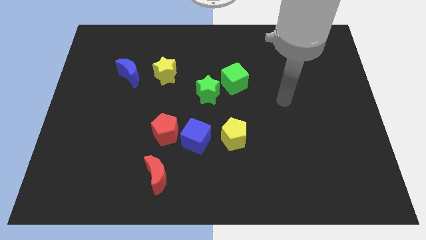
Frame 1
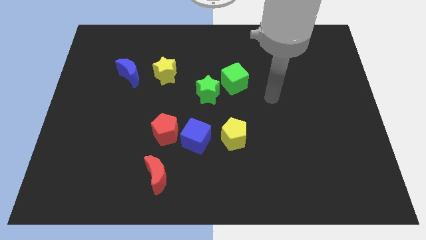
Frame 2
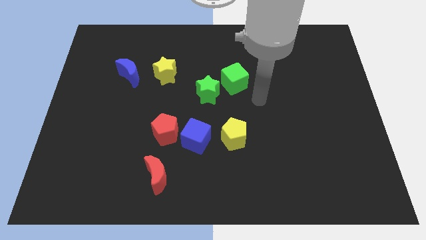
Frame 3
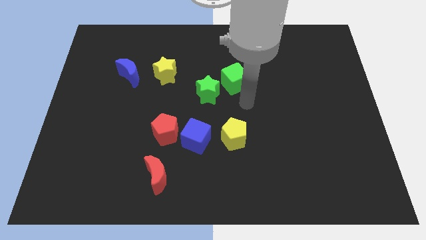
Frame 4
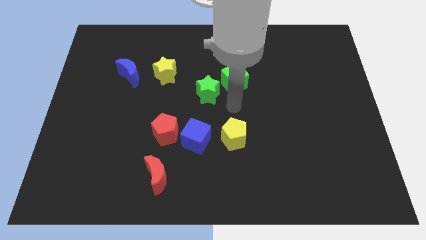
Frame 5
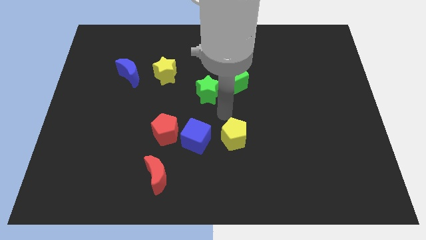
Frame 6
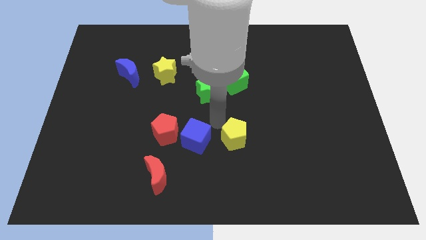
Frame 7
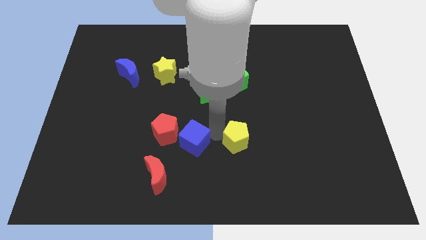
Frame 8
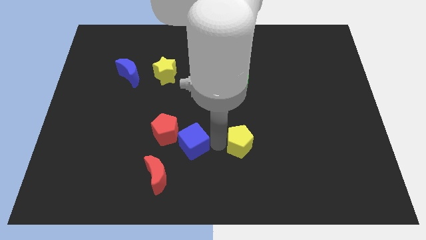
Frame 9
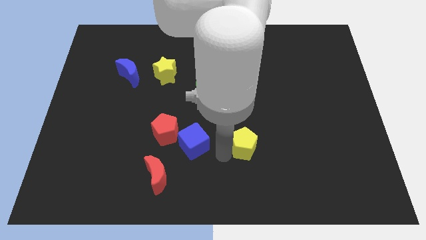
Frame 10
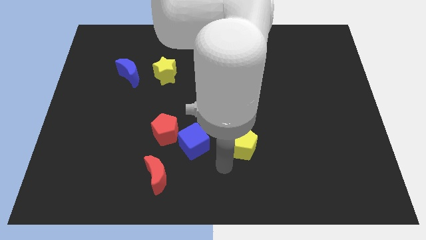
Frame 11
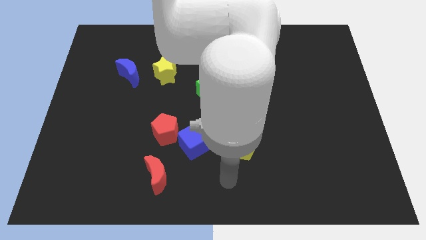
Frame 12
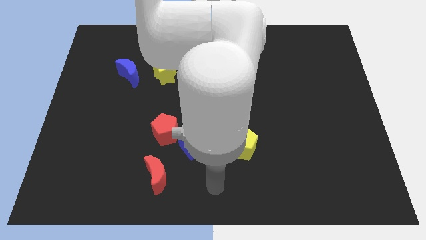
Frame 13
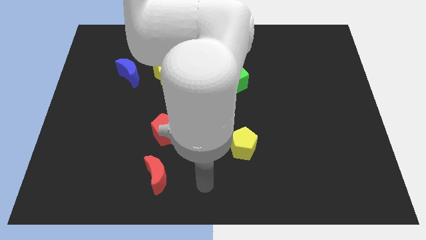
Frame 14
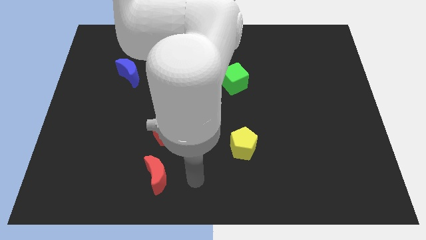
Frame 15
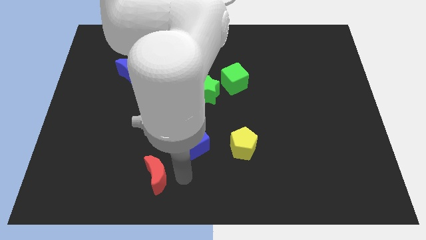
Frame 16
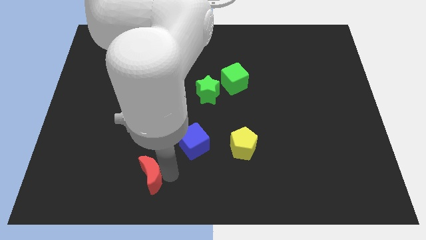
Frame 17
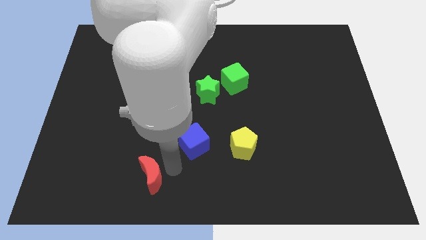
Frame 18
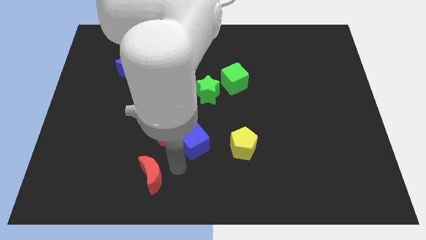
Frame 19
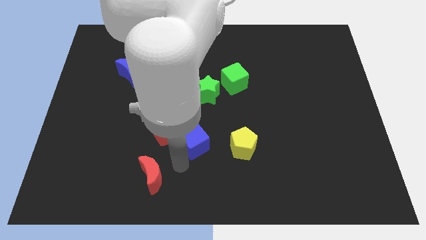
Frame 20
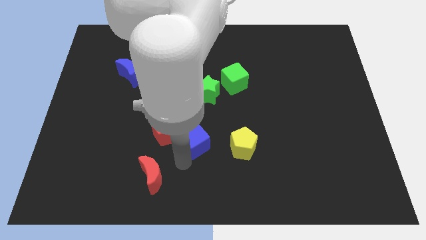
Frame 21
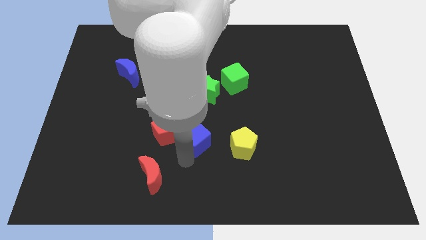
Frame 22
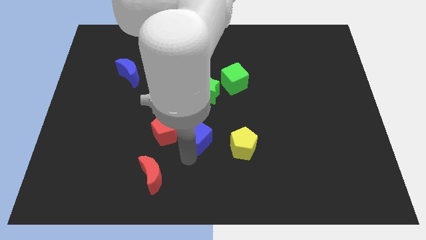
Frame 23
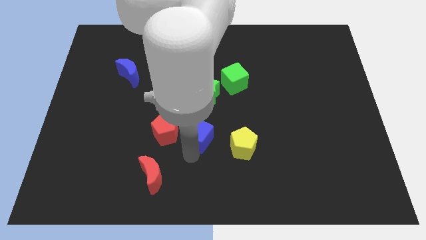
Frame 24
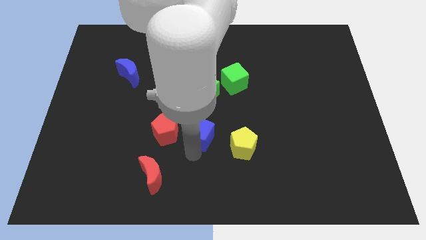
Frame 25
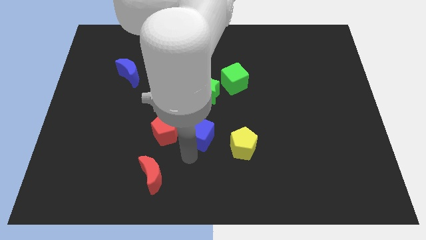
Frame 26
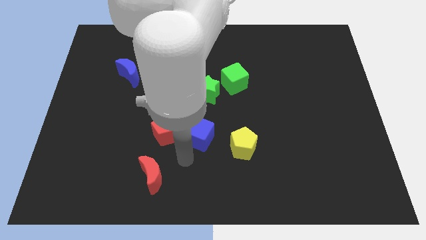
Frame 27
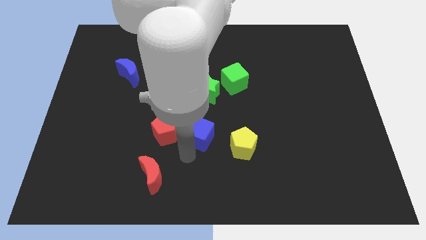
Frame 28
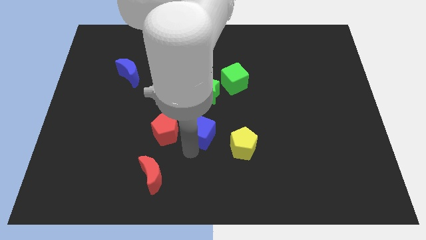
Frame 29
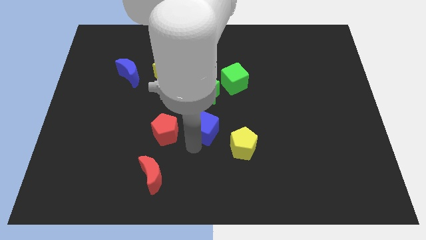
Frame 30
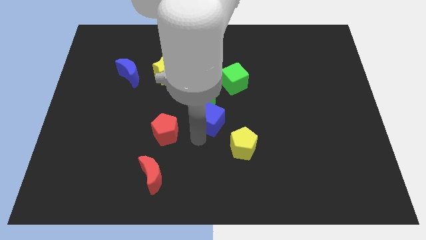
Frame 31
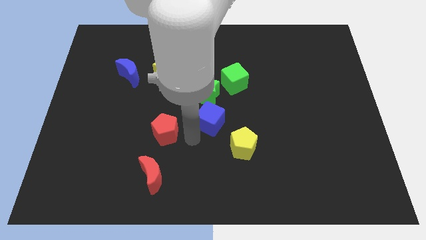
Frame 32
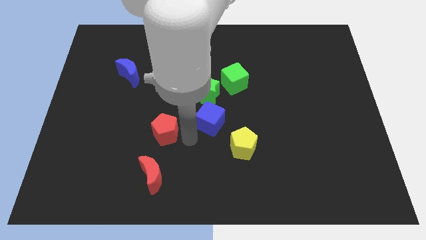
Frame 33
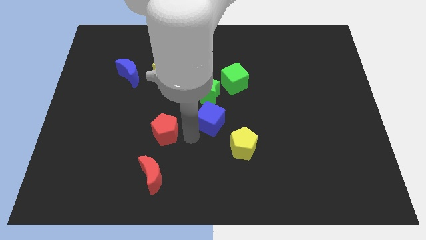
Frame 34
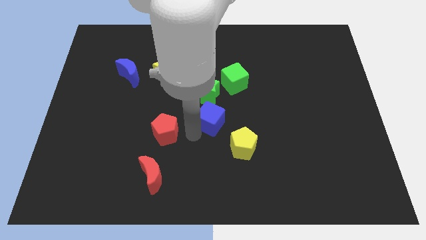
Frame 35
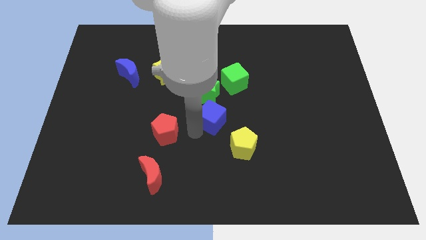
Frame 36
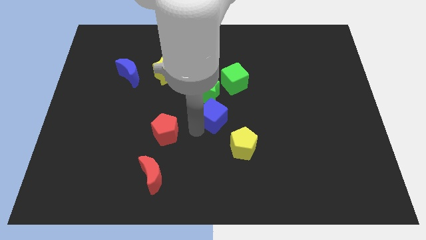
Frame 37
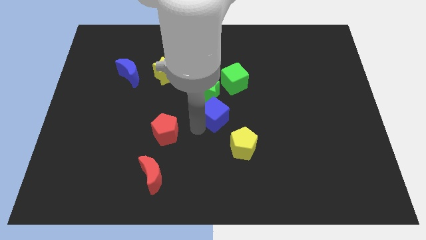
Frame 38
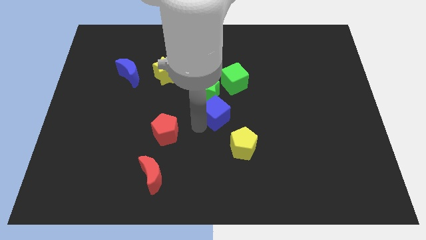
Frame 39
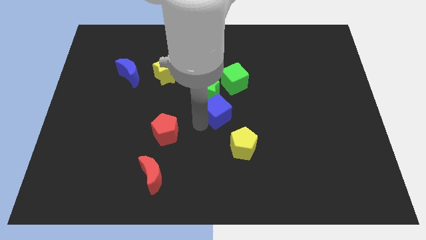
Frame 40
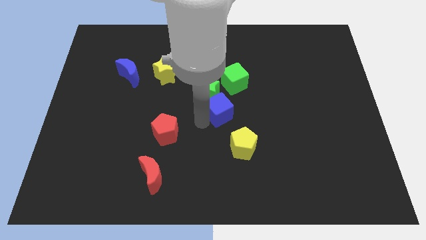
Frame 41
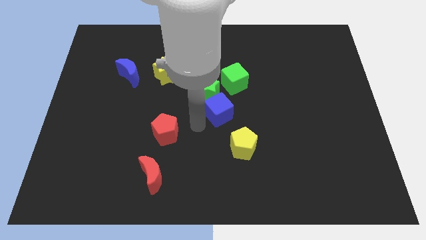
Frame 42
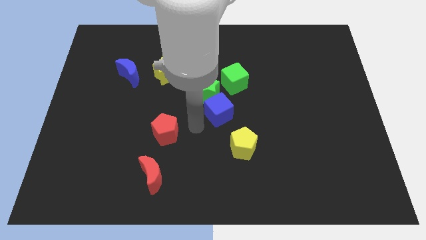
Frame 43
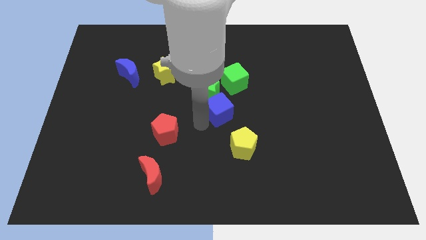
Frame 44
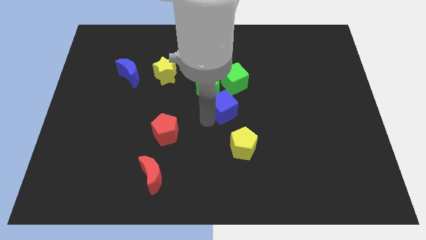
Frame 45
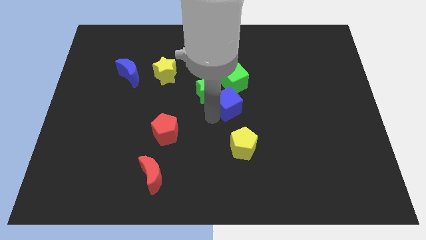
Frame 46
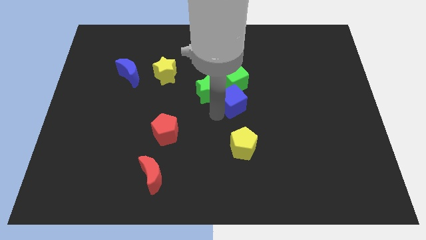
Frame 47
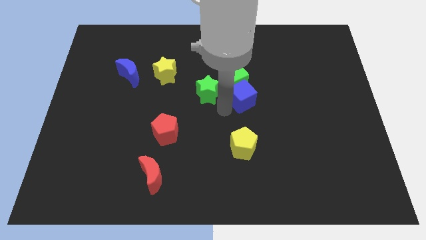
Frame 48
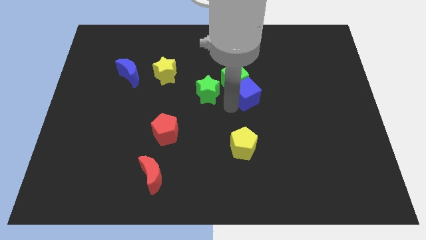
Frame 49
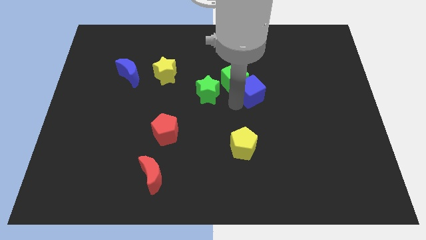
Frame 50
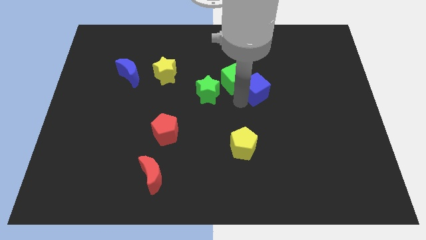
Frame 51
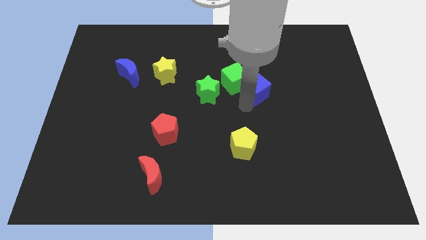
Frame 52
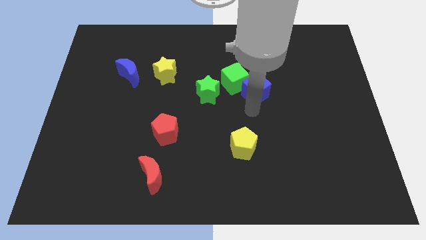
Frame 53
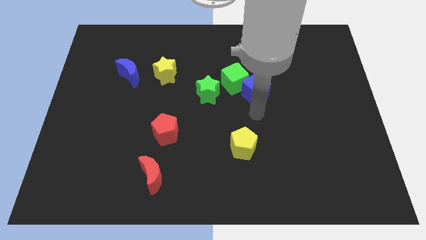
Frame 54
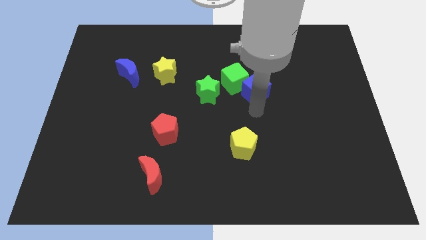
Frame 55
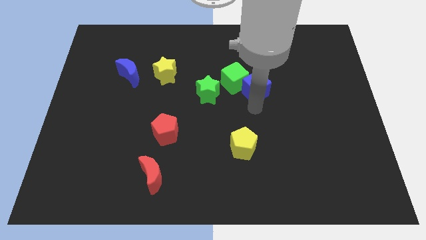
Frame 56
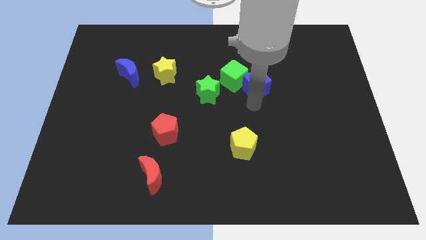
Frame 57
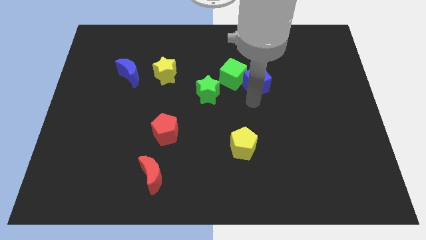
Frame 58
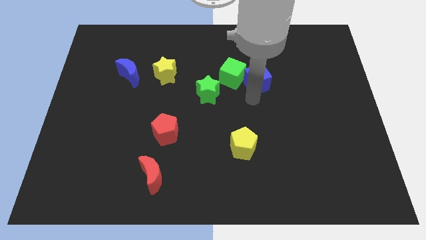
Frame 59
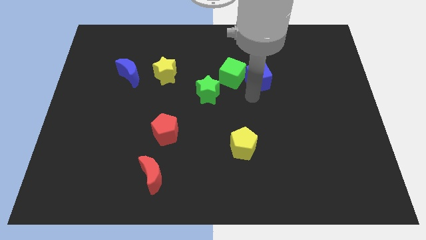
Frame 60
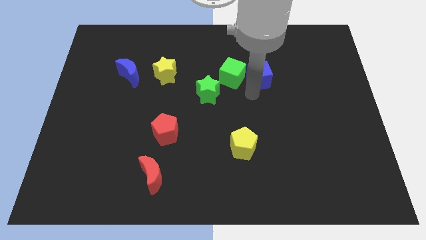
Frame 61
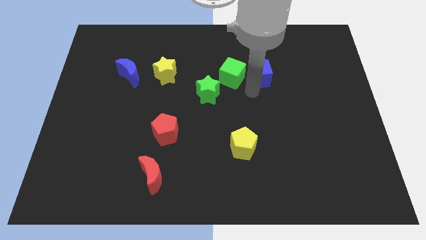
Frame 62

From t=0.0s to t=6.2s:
put the blue cube diagonally up and to the right of the green cube

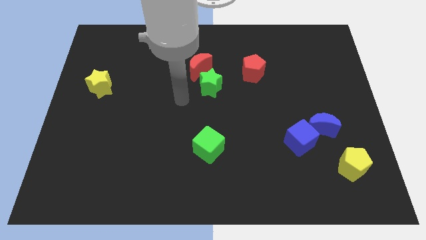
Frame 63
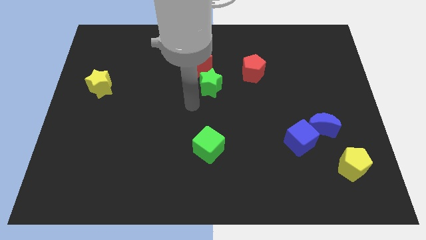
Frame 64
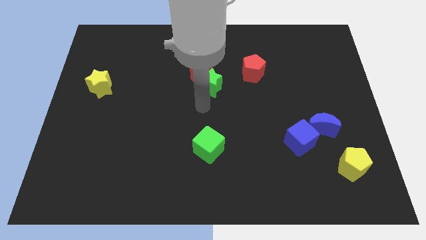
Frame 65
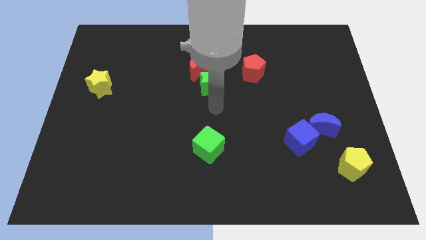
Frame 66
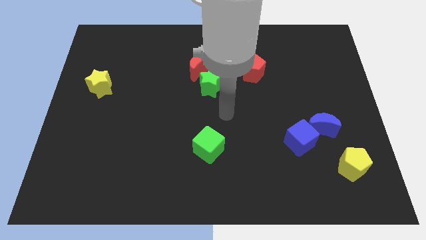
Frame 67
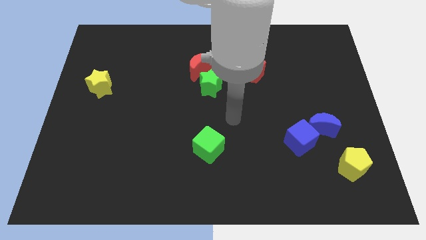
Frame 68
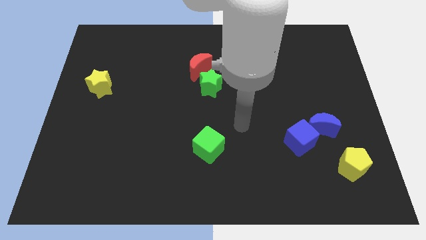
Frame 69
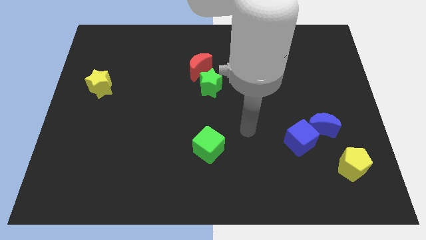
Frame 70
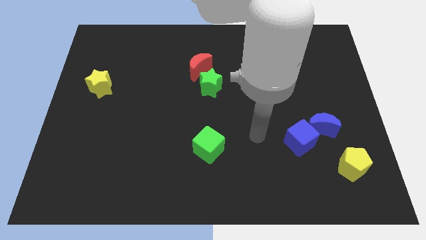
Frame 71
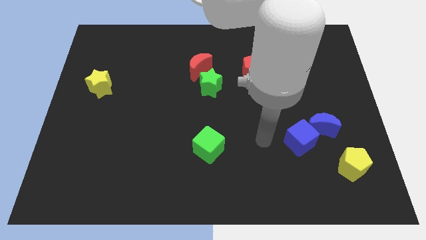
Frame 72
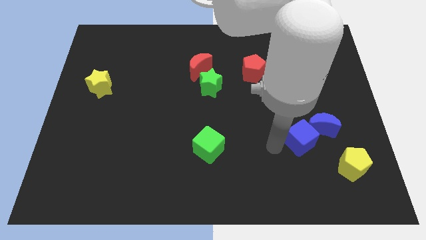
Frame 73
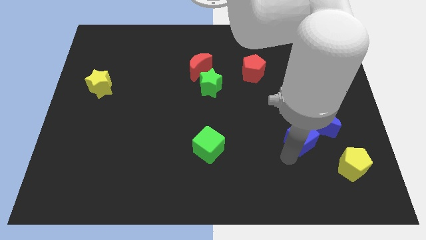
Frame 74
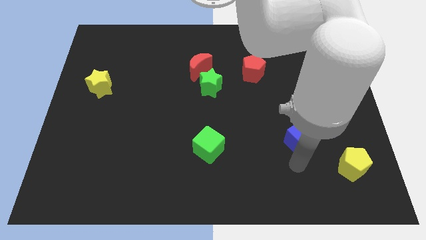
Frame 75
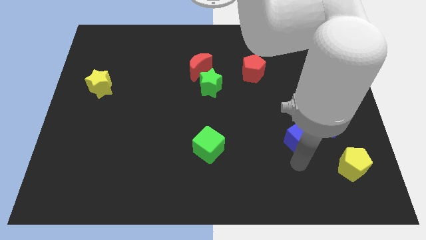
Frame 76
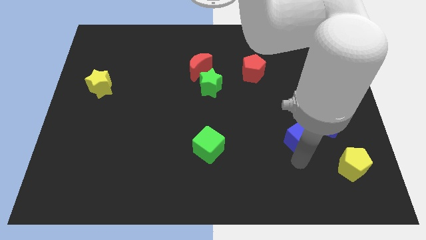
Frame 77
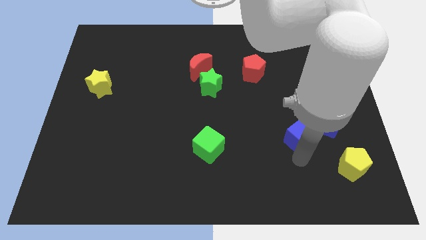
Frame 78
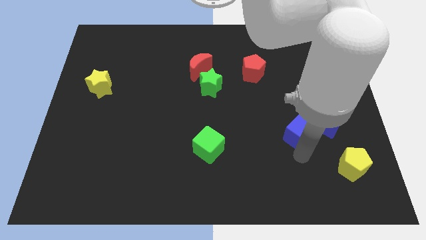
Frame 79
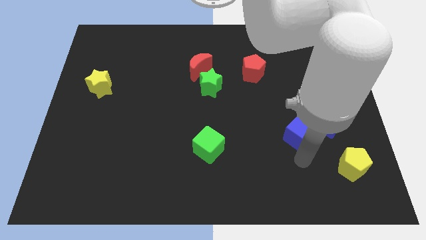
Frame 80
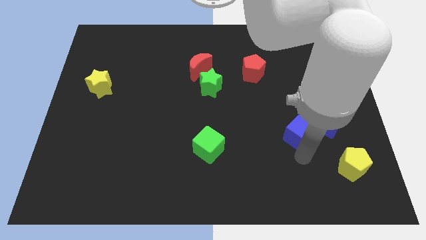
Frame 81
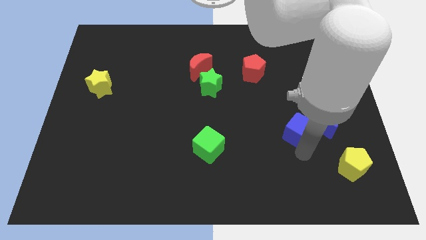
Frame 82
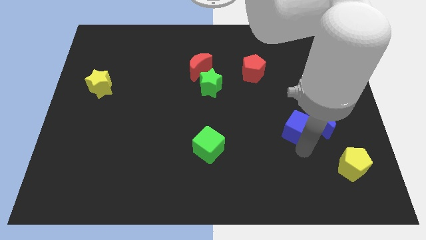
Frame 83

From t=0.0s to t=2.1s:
push the blue cube to the top left of the blue moon
